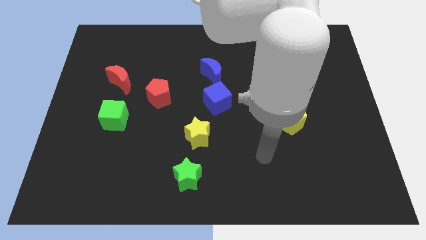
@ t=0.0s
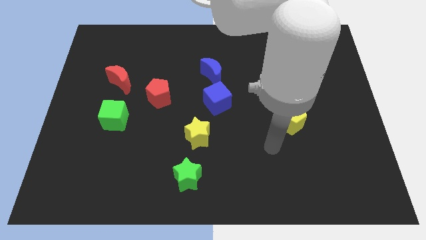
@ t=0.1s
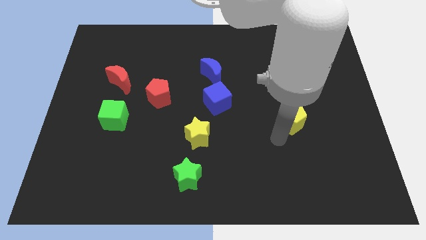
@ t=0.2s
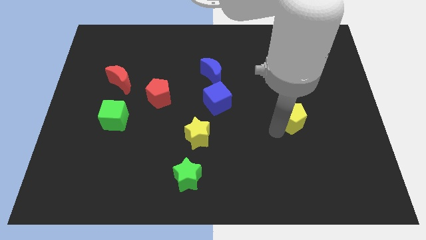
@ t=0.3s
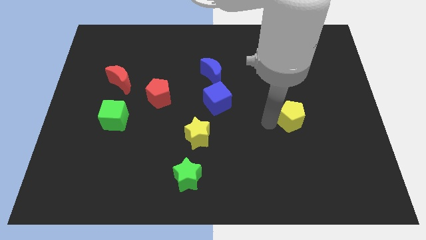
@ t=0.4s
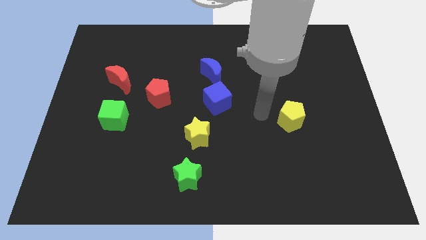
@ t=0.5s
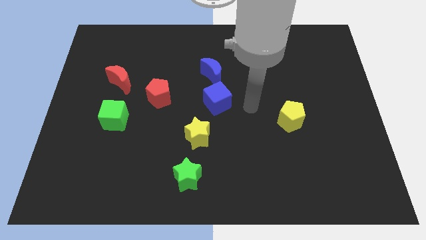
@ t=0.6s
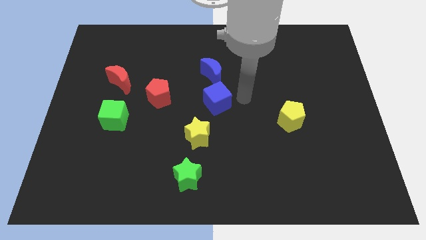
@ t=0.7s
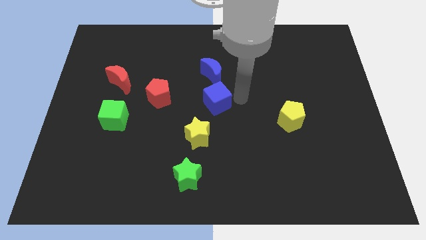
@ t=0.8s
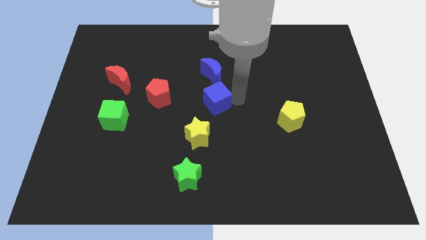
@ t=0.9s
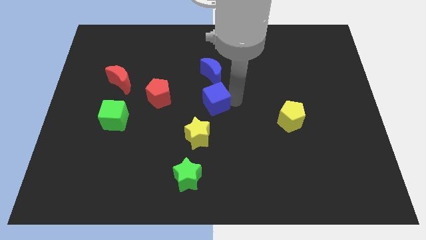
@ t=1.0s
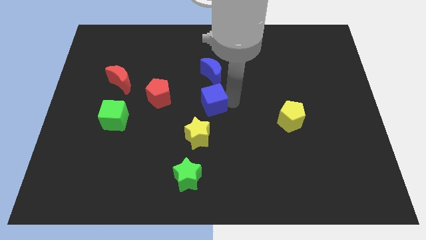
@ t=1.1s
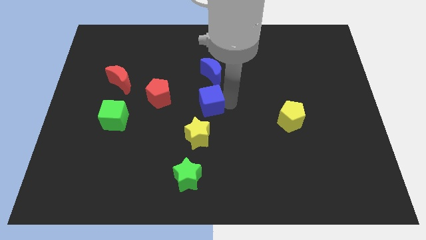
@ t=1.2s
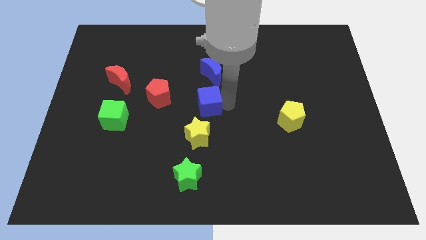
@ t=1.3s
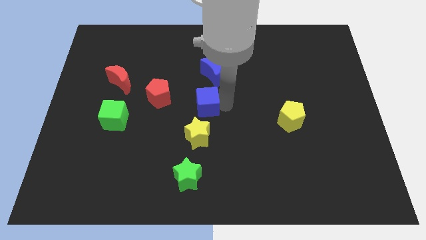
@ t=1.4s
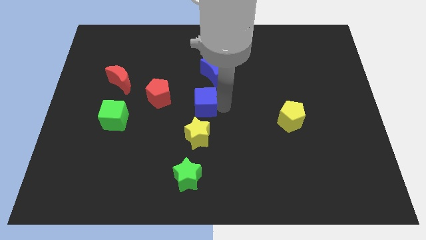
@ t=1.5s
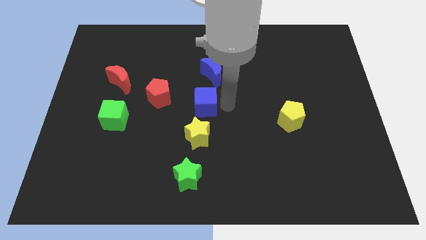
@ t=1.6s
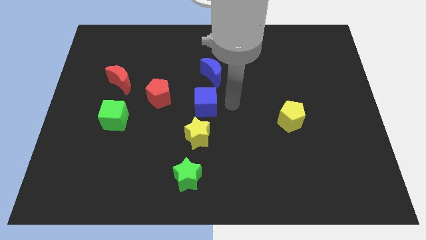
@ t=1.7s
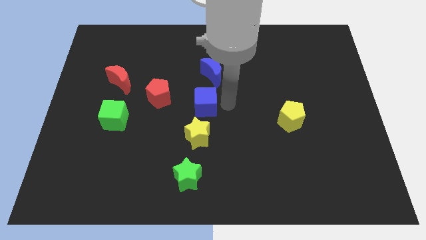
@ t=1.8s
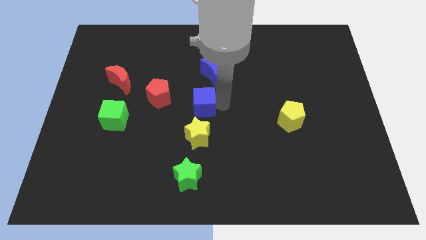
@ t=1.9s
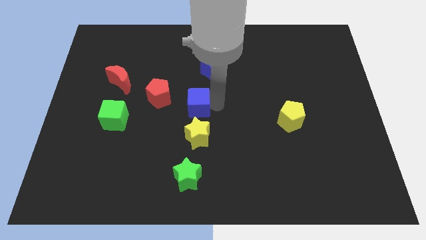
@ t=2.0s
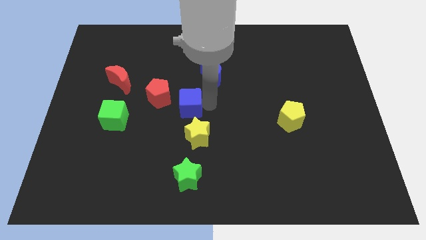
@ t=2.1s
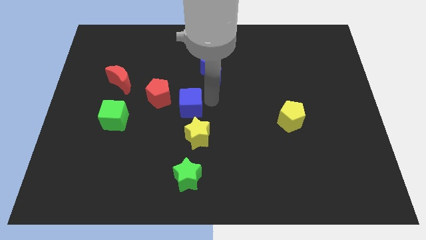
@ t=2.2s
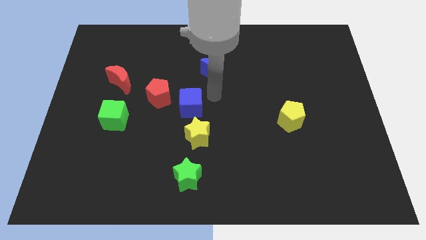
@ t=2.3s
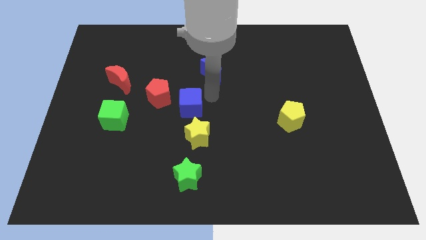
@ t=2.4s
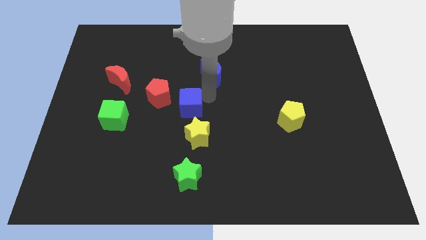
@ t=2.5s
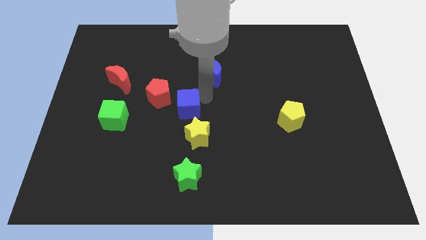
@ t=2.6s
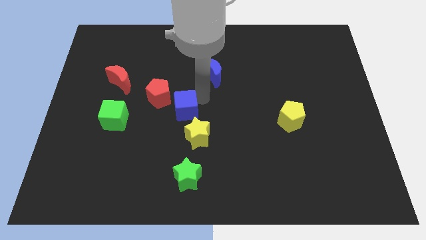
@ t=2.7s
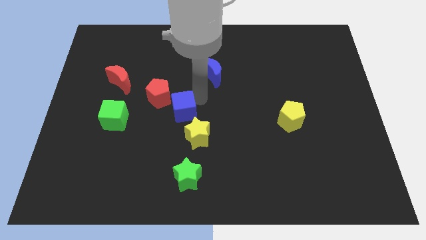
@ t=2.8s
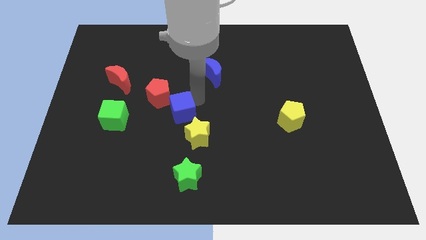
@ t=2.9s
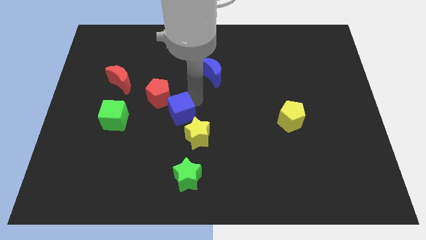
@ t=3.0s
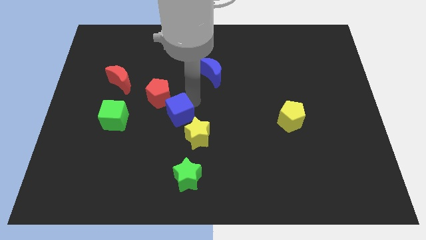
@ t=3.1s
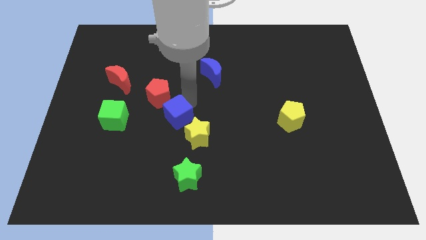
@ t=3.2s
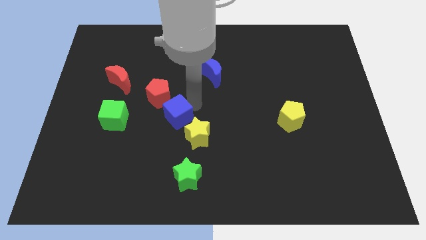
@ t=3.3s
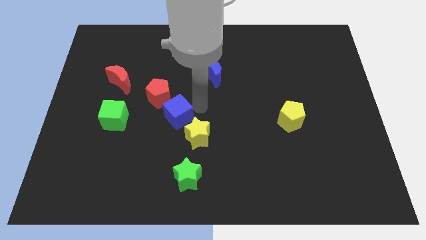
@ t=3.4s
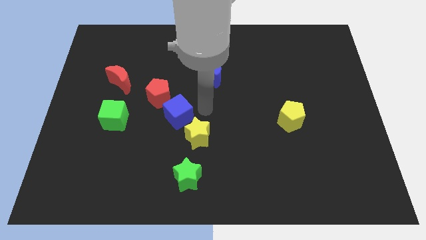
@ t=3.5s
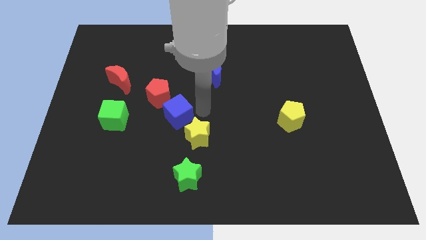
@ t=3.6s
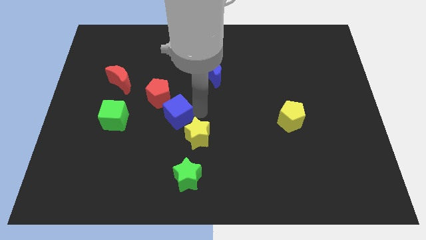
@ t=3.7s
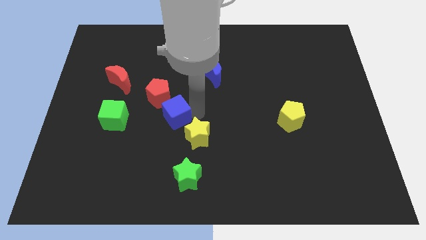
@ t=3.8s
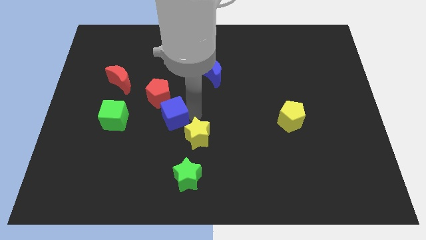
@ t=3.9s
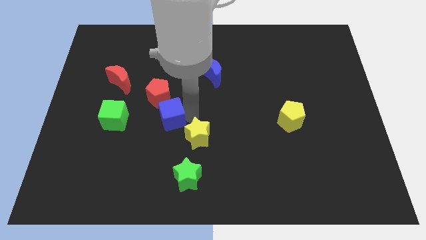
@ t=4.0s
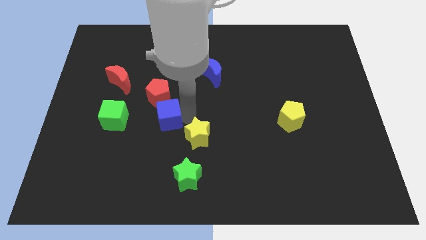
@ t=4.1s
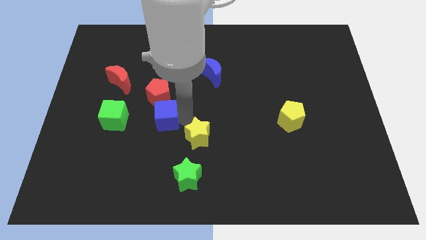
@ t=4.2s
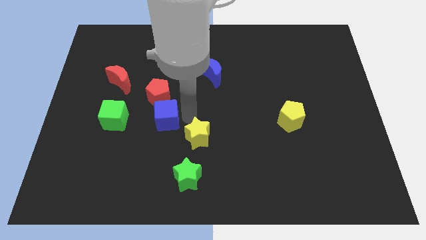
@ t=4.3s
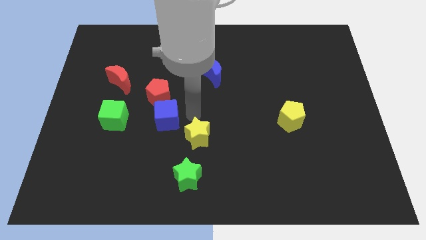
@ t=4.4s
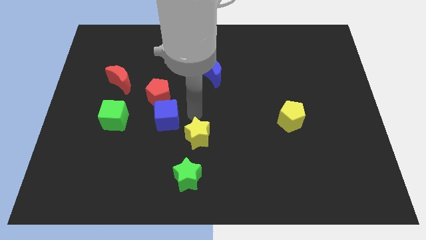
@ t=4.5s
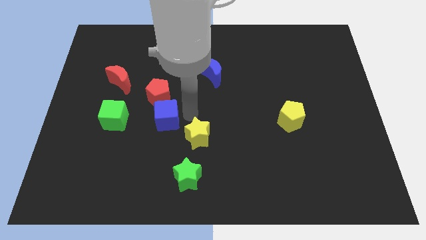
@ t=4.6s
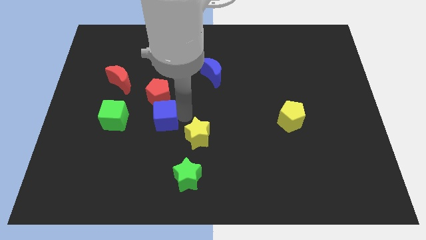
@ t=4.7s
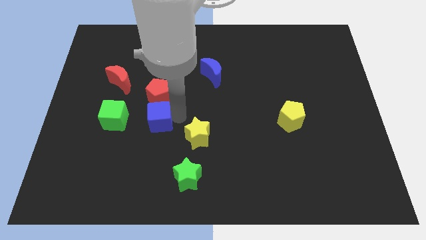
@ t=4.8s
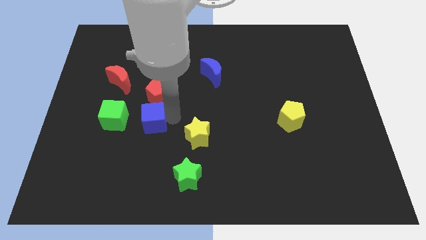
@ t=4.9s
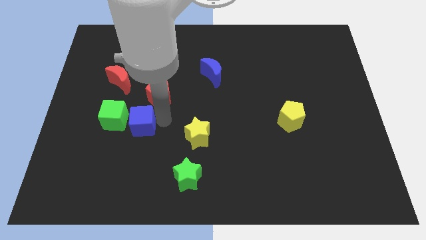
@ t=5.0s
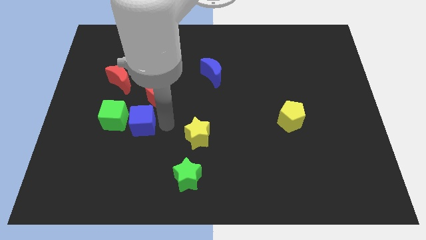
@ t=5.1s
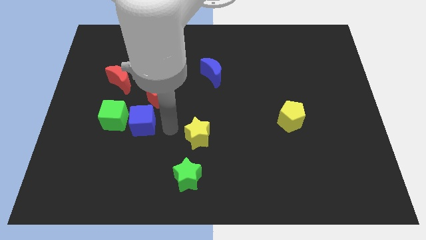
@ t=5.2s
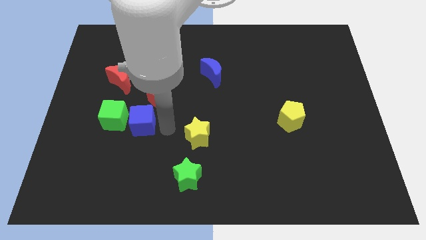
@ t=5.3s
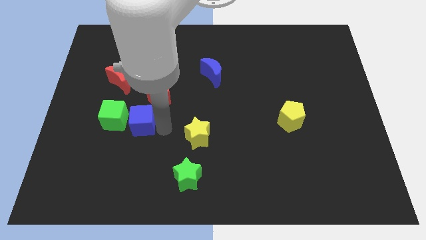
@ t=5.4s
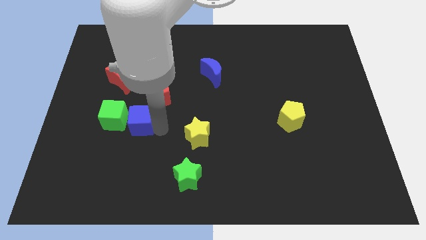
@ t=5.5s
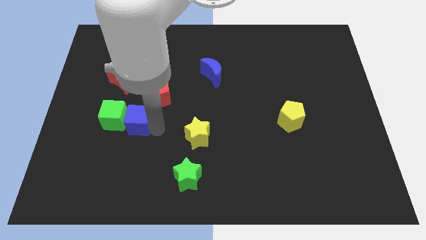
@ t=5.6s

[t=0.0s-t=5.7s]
move the blue cube close to the green cube

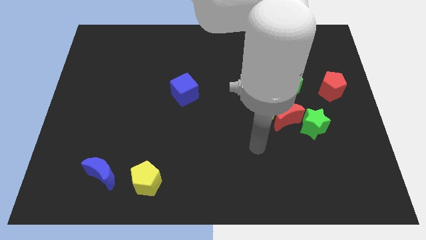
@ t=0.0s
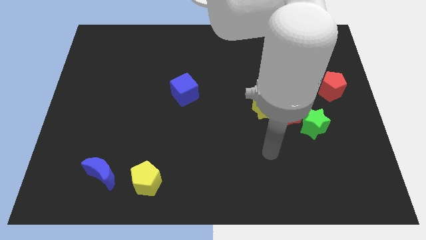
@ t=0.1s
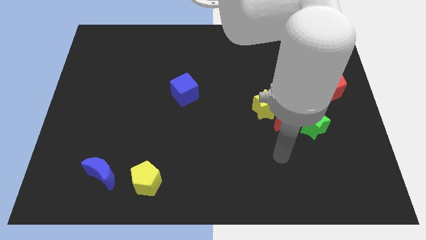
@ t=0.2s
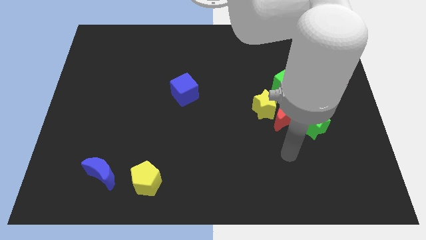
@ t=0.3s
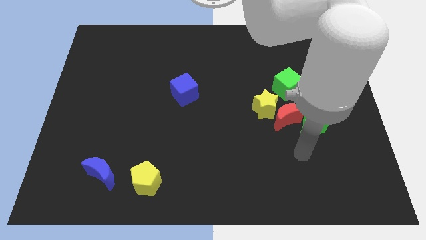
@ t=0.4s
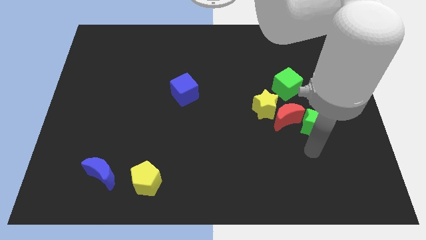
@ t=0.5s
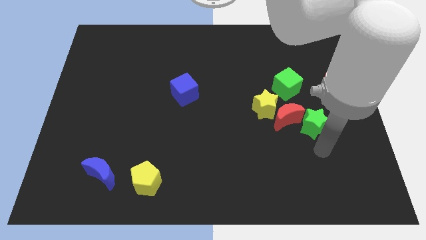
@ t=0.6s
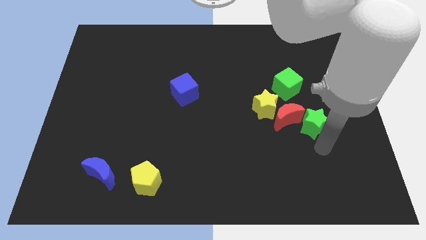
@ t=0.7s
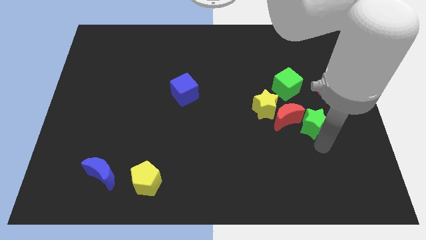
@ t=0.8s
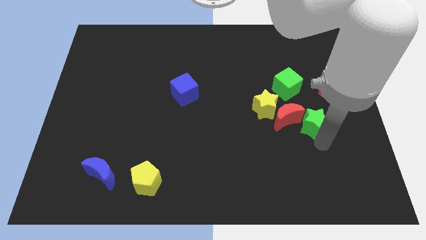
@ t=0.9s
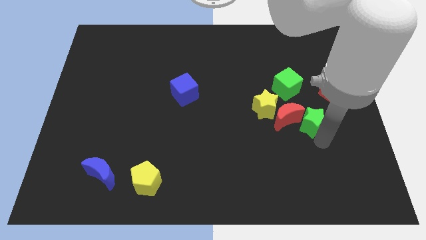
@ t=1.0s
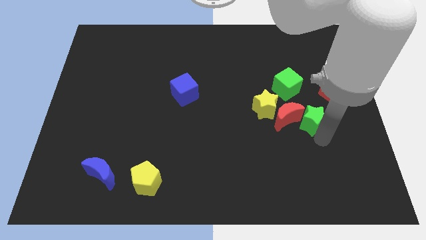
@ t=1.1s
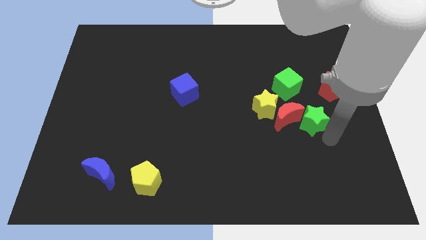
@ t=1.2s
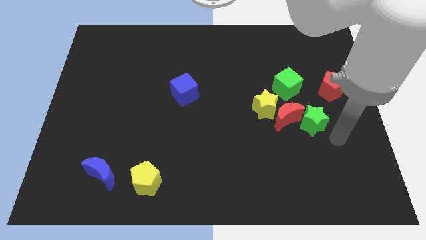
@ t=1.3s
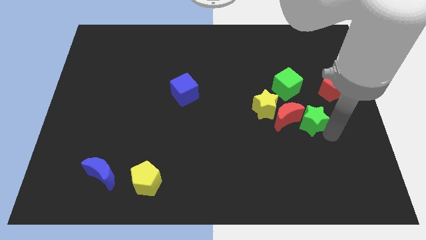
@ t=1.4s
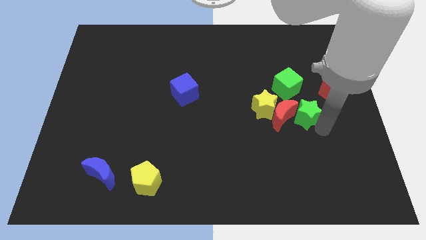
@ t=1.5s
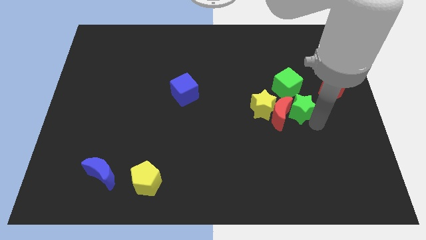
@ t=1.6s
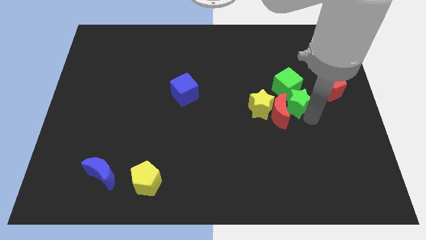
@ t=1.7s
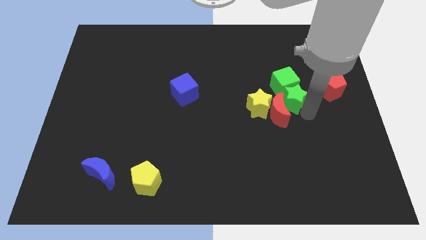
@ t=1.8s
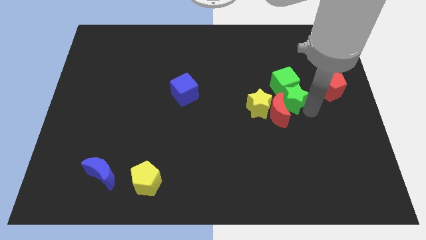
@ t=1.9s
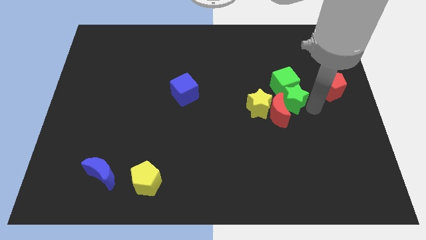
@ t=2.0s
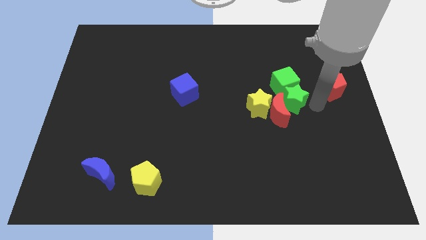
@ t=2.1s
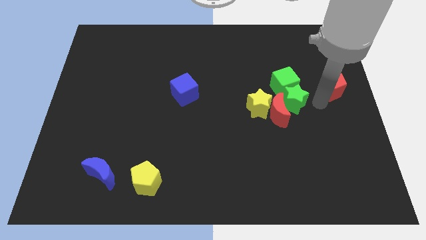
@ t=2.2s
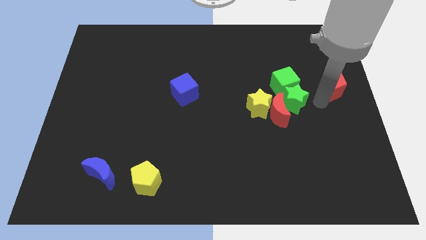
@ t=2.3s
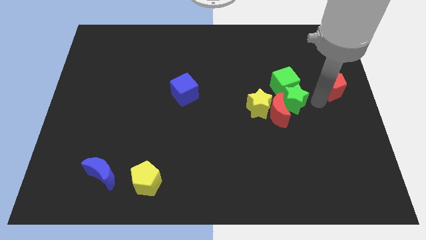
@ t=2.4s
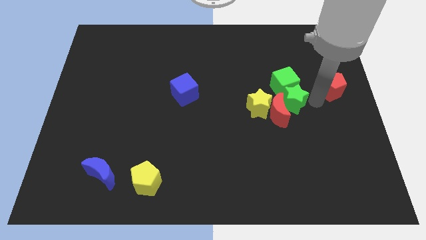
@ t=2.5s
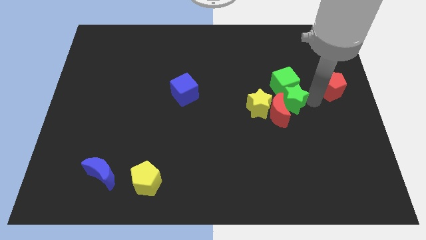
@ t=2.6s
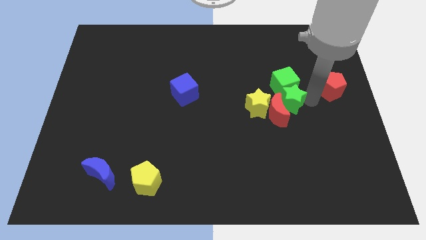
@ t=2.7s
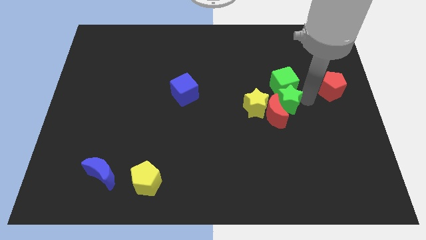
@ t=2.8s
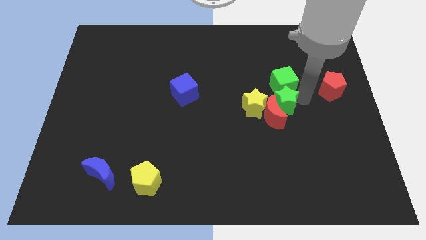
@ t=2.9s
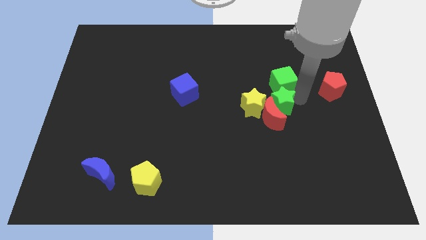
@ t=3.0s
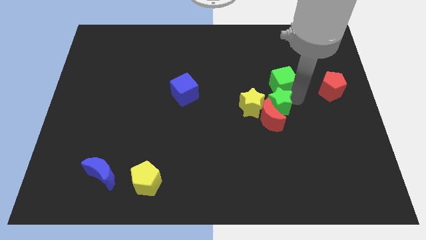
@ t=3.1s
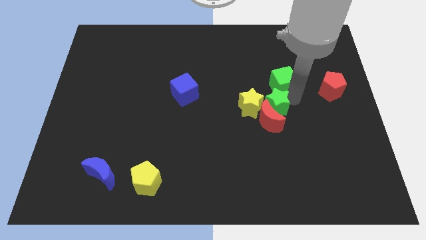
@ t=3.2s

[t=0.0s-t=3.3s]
put the green star next to the yellow star
